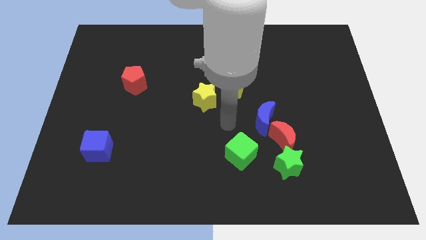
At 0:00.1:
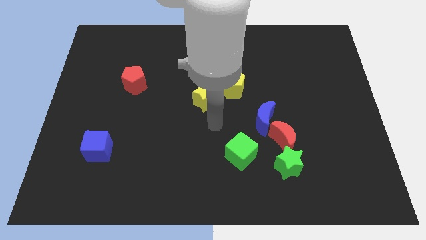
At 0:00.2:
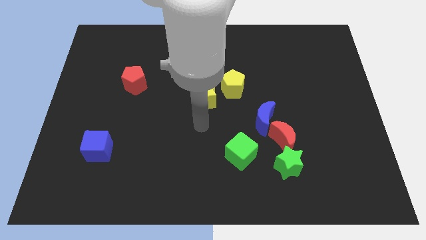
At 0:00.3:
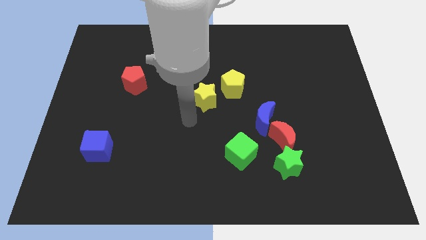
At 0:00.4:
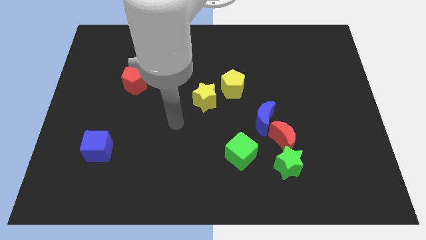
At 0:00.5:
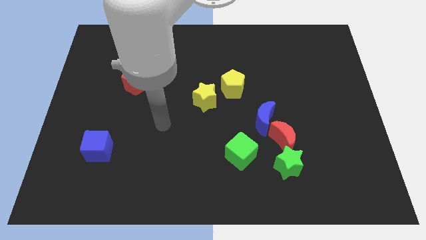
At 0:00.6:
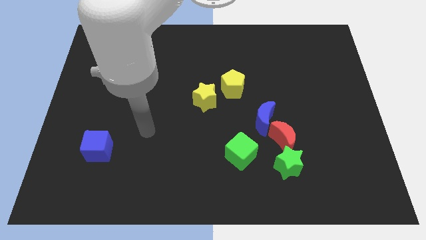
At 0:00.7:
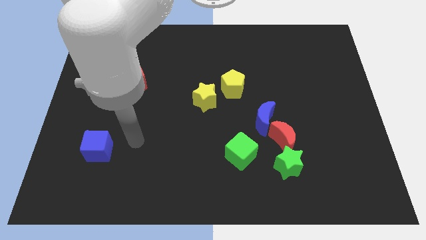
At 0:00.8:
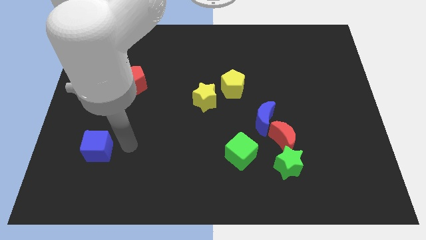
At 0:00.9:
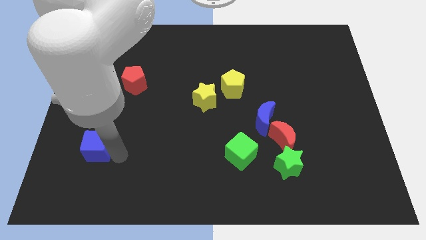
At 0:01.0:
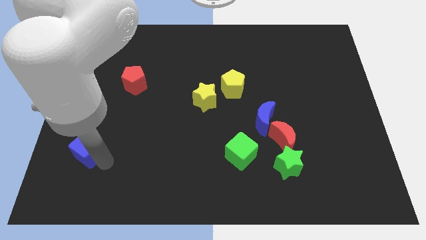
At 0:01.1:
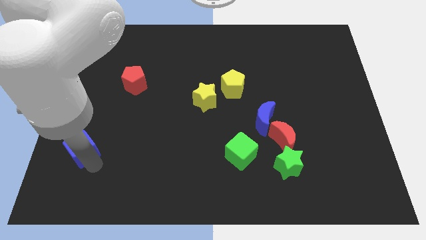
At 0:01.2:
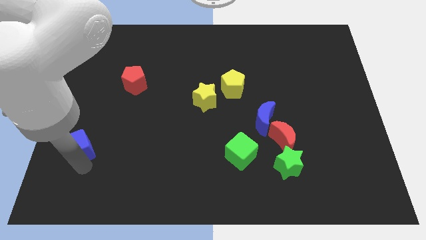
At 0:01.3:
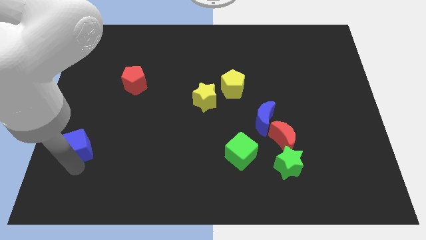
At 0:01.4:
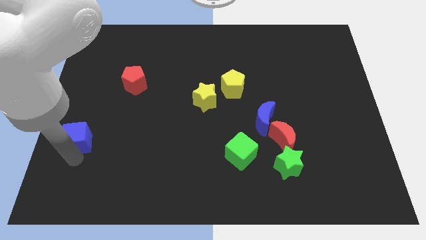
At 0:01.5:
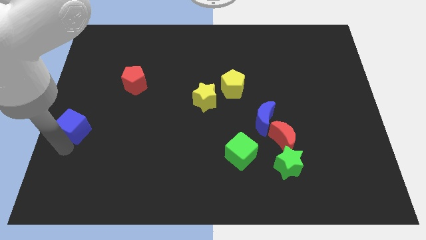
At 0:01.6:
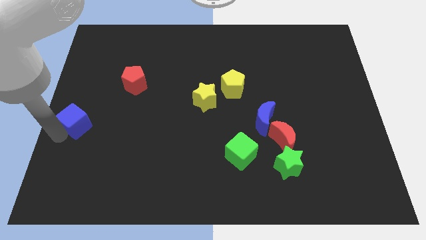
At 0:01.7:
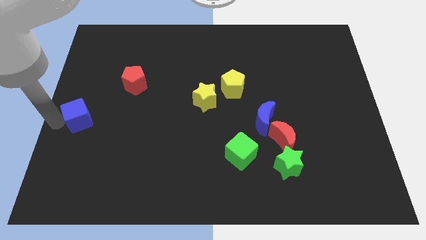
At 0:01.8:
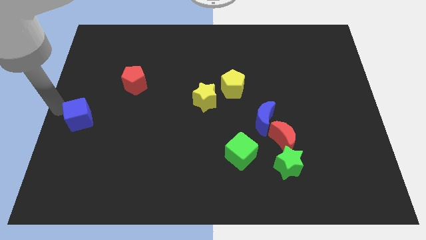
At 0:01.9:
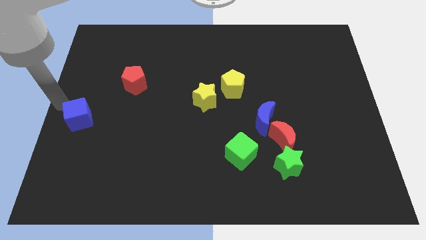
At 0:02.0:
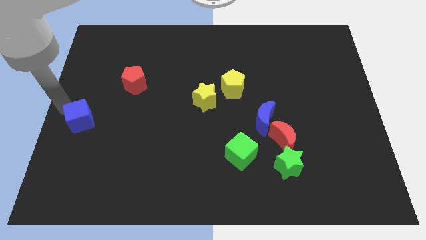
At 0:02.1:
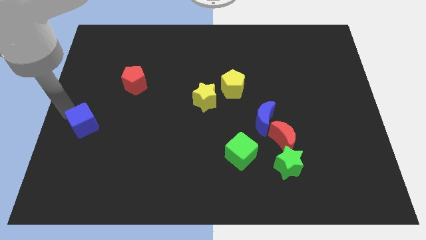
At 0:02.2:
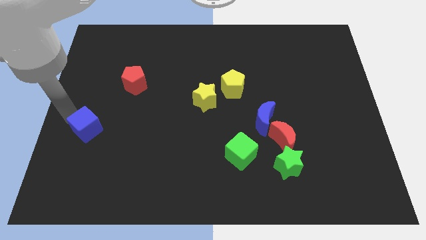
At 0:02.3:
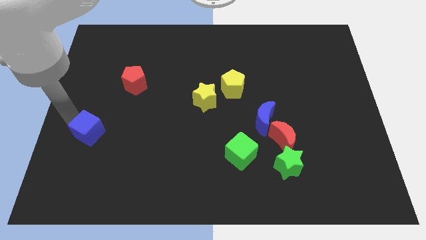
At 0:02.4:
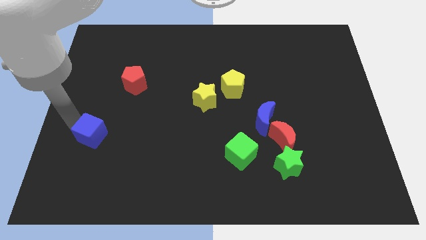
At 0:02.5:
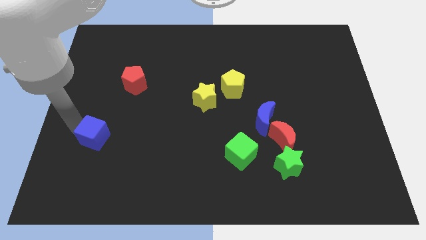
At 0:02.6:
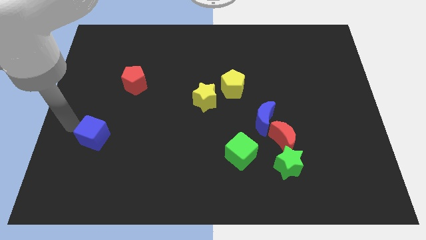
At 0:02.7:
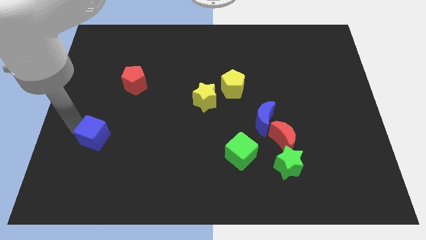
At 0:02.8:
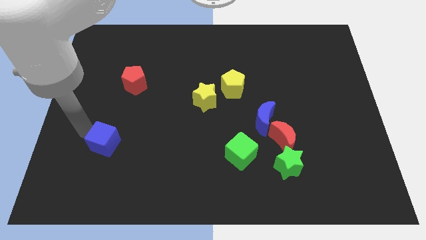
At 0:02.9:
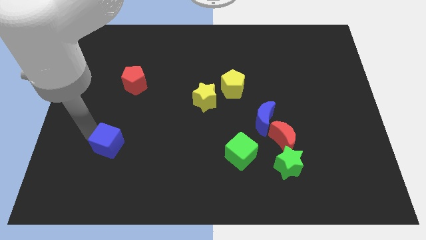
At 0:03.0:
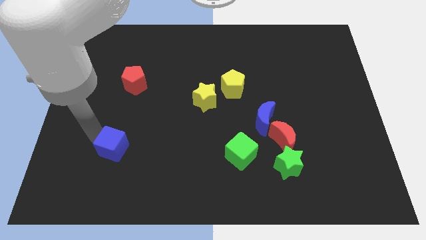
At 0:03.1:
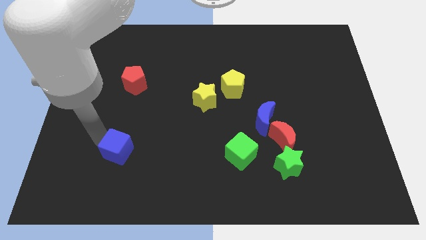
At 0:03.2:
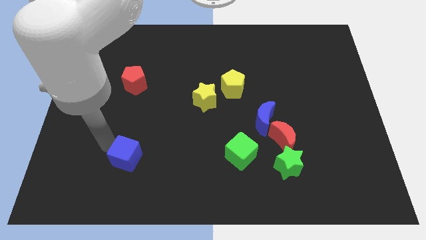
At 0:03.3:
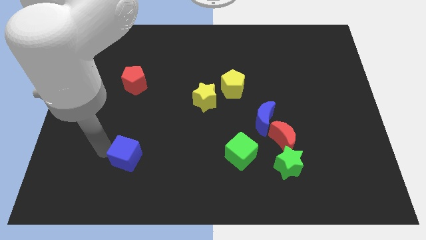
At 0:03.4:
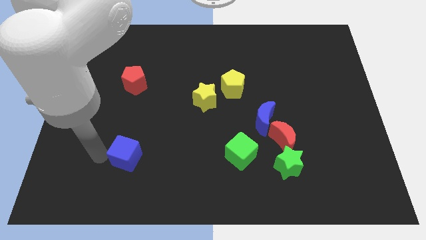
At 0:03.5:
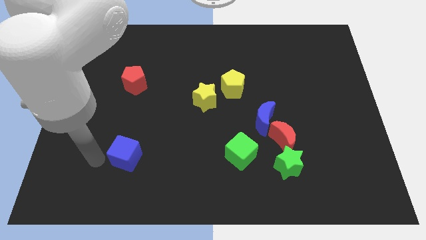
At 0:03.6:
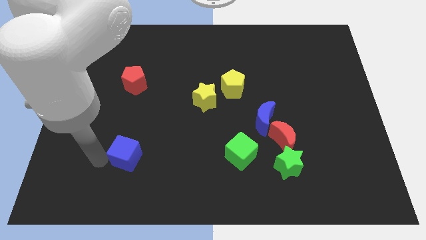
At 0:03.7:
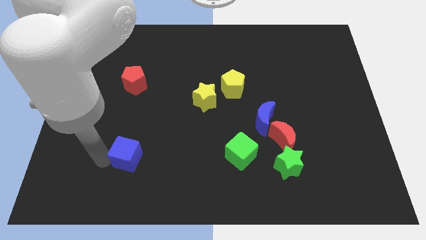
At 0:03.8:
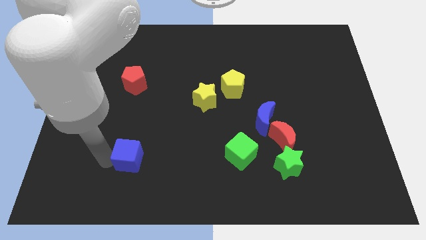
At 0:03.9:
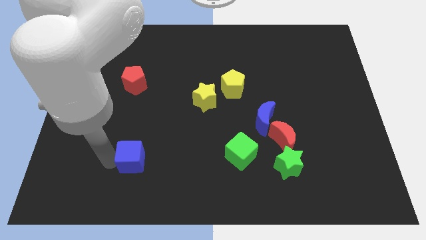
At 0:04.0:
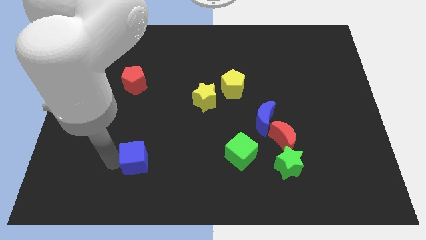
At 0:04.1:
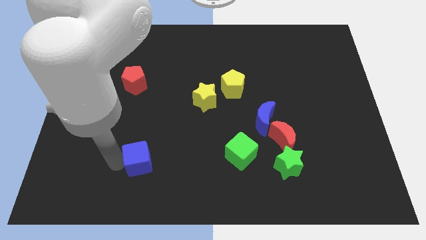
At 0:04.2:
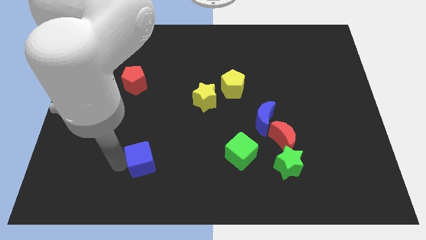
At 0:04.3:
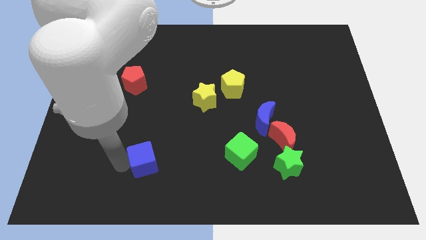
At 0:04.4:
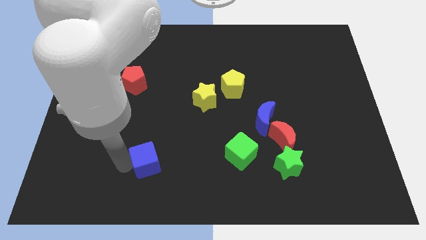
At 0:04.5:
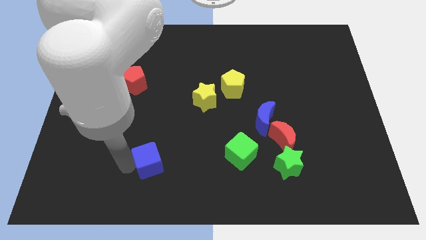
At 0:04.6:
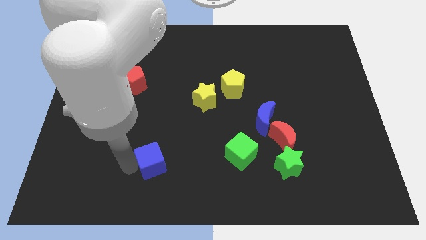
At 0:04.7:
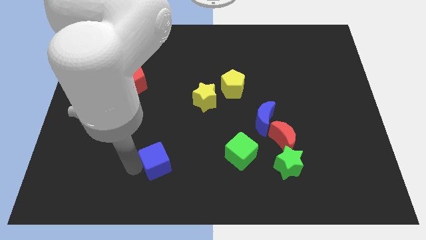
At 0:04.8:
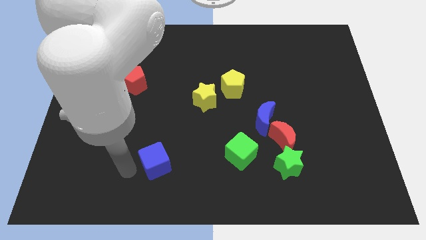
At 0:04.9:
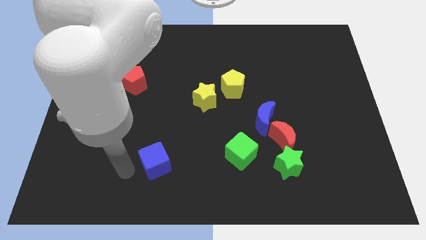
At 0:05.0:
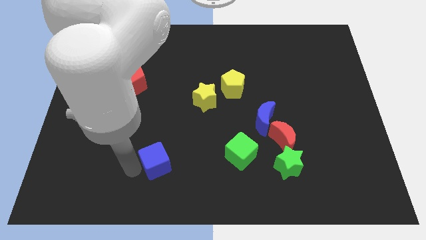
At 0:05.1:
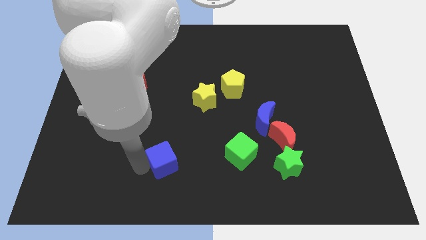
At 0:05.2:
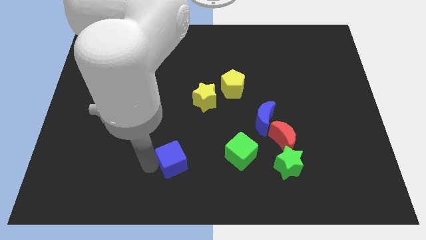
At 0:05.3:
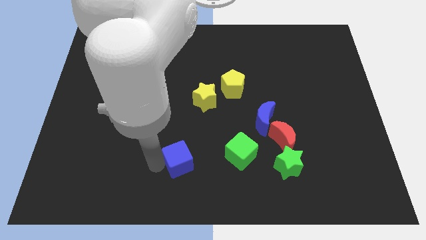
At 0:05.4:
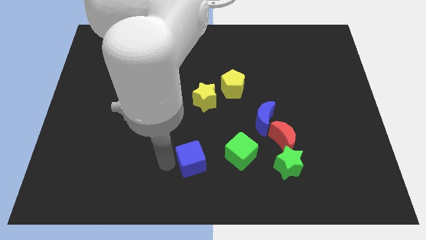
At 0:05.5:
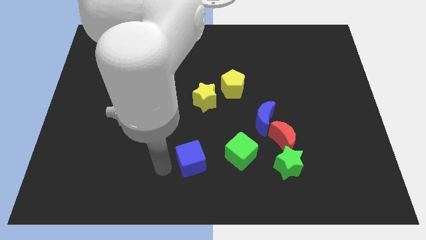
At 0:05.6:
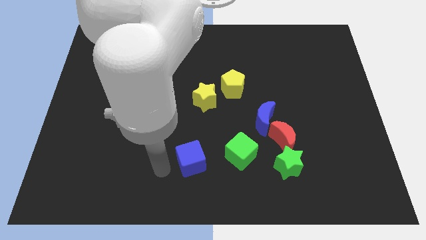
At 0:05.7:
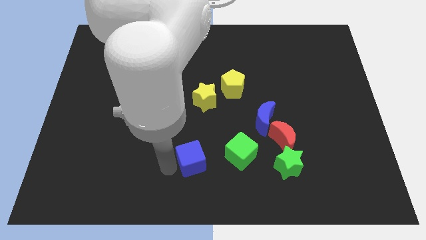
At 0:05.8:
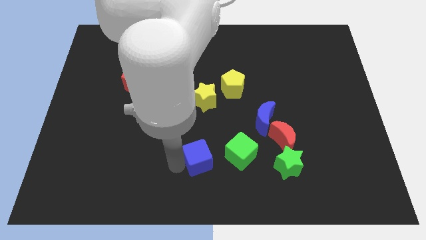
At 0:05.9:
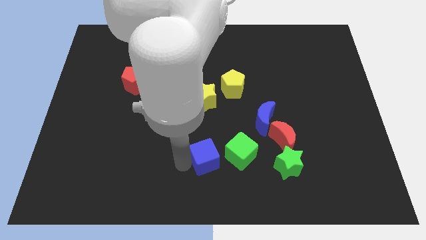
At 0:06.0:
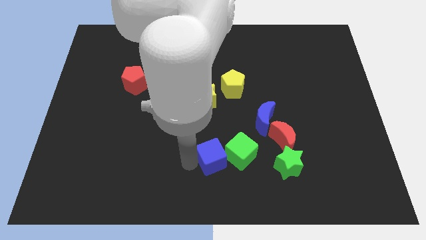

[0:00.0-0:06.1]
move the blue cube to the green cube
